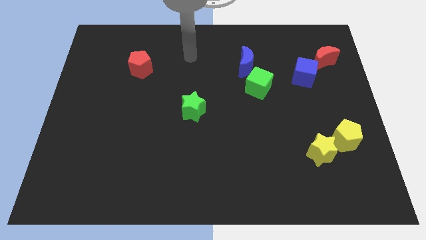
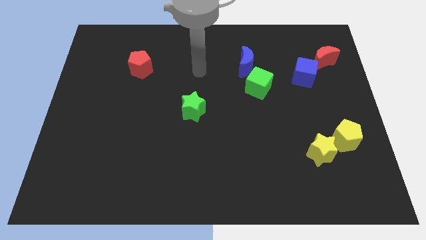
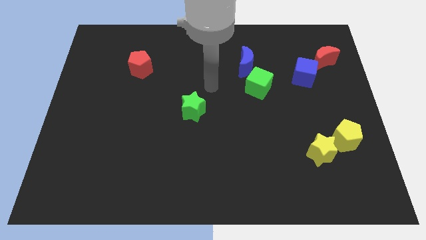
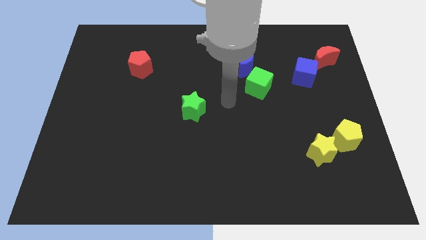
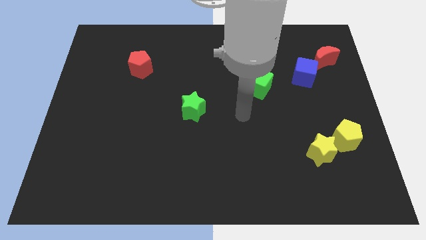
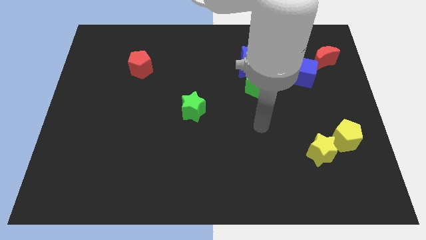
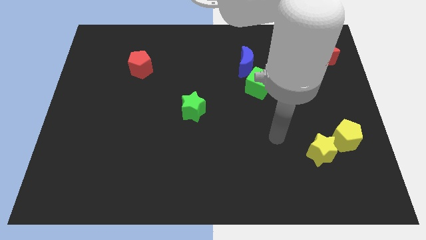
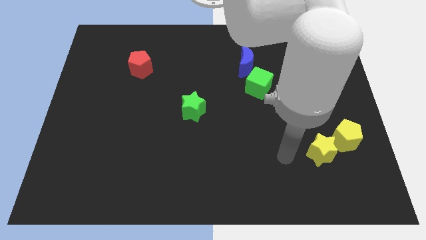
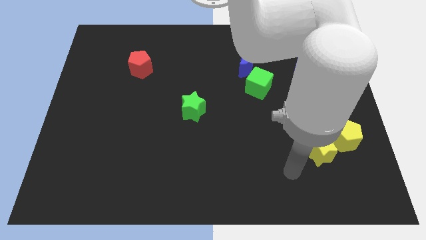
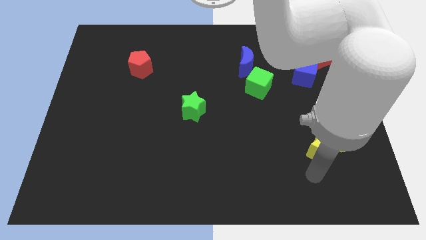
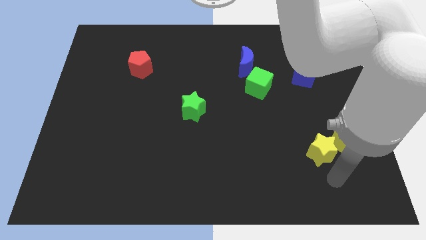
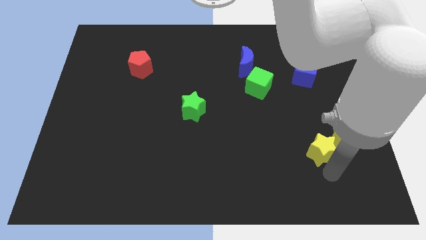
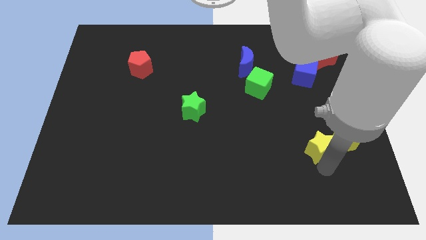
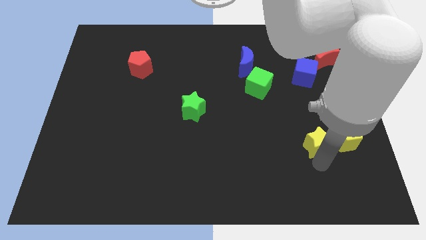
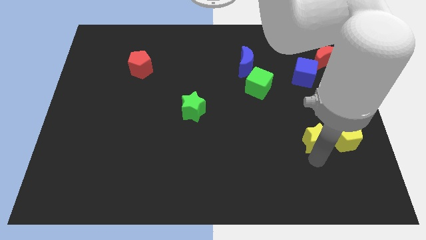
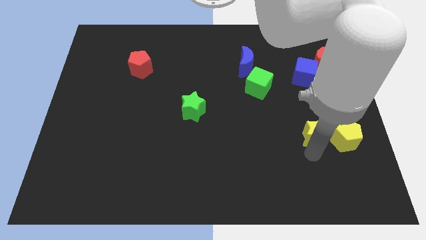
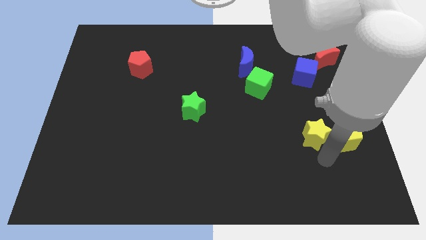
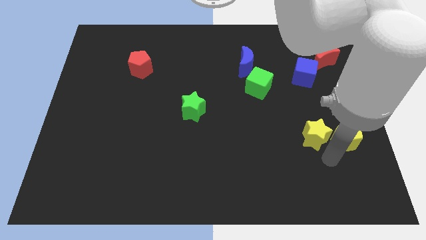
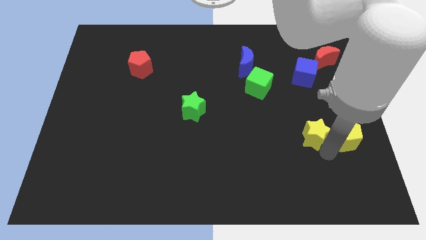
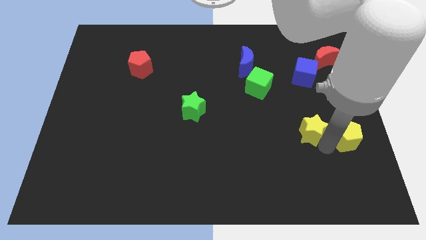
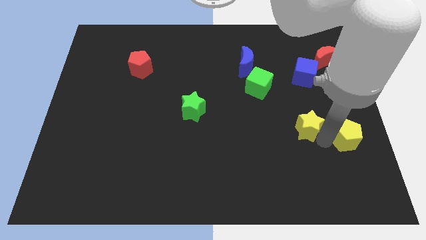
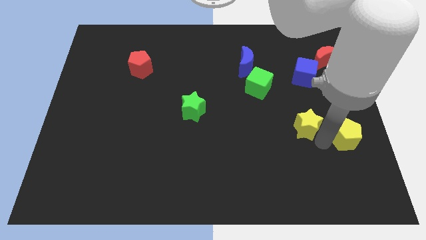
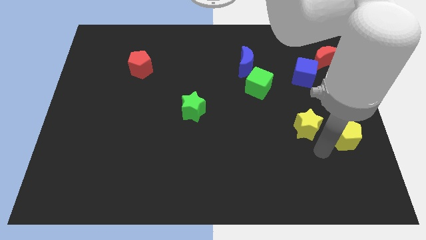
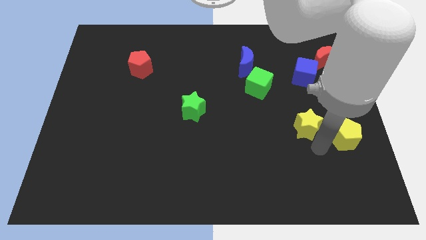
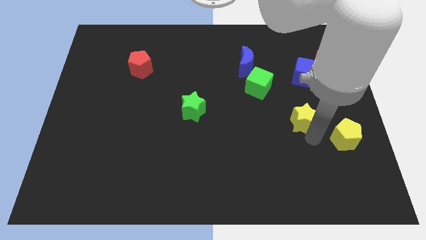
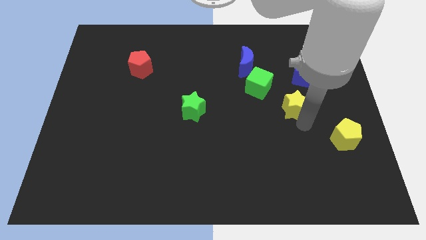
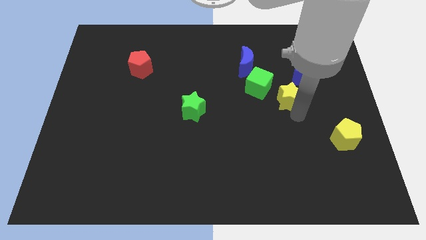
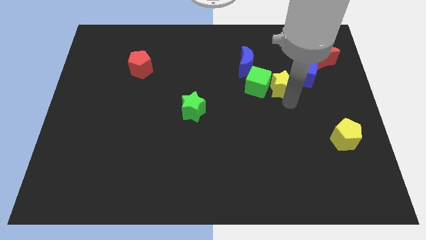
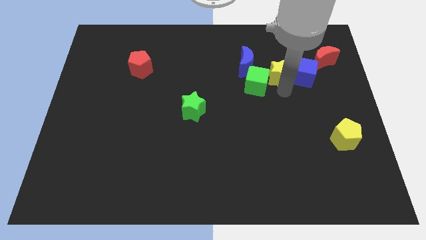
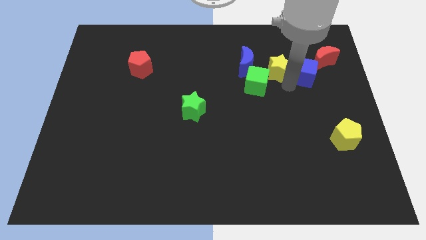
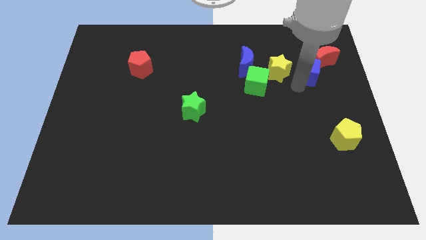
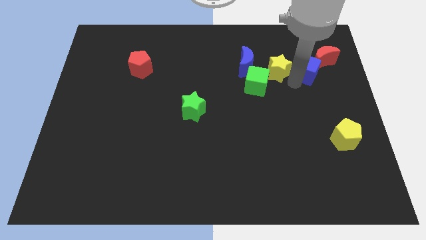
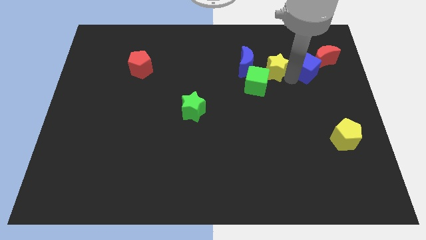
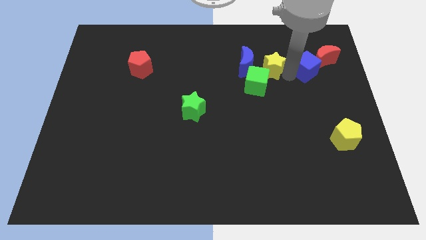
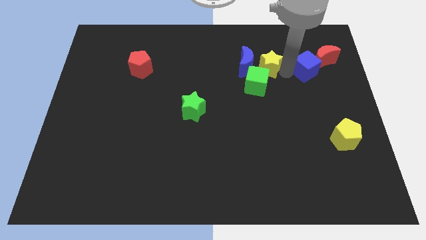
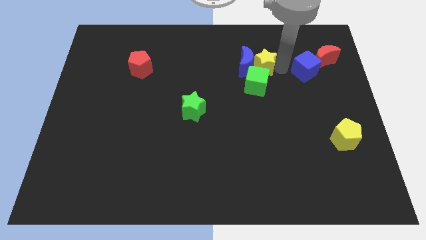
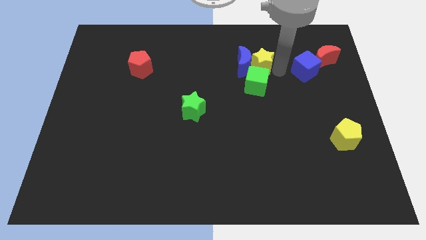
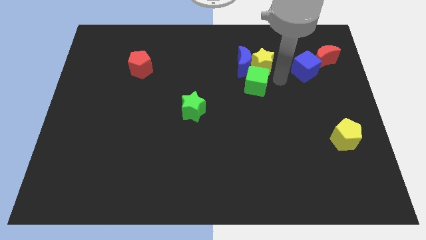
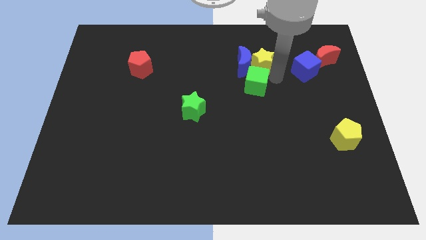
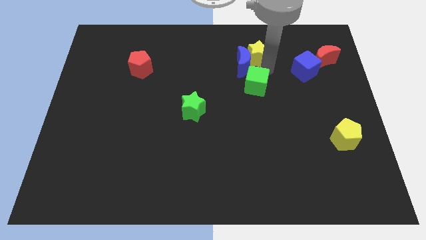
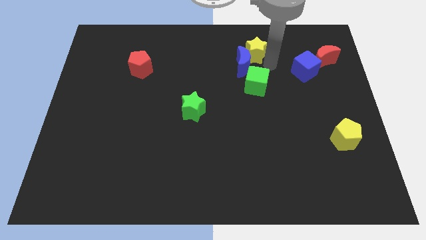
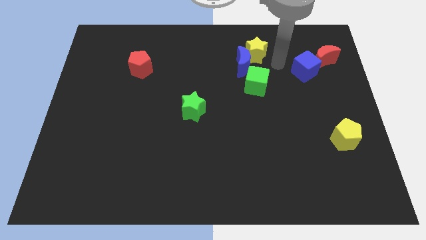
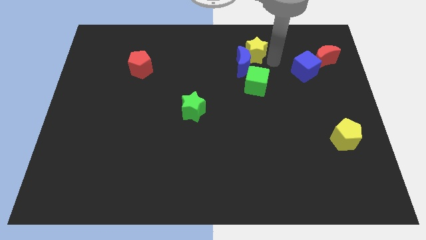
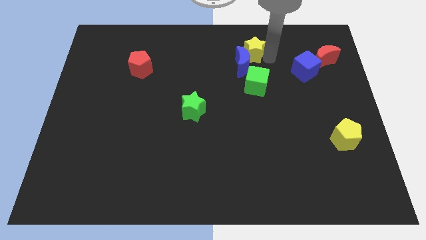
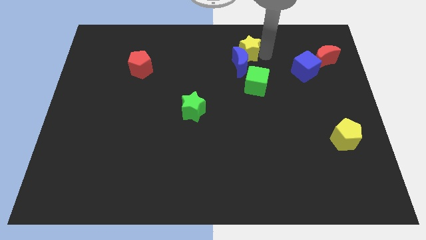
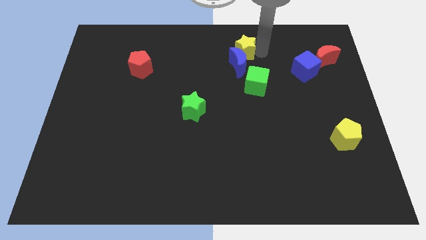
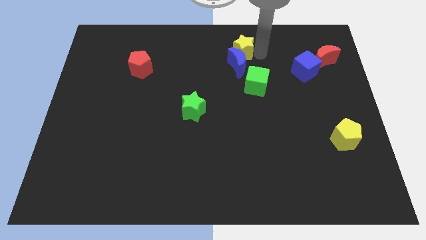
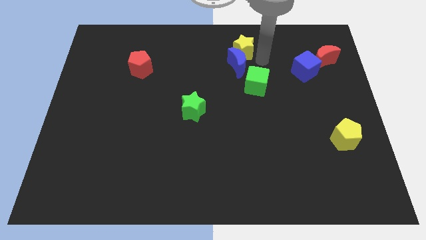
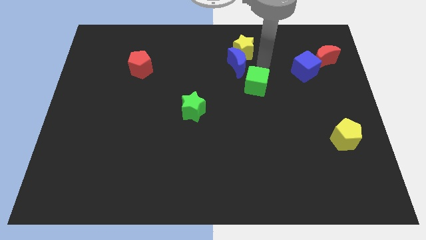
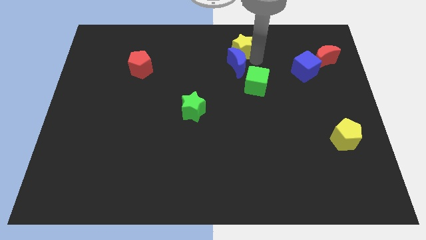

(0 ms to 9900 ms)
move the yellow star to the top side

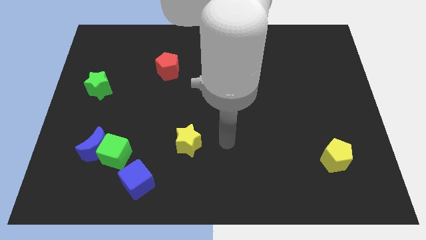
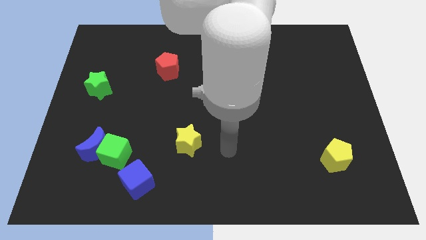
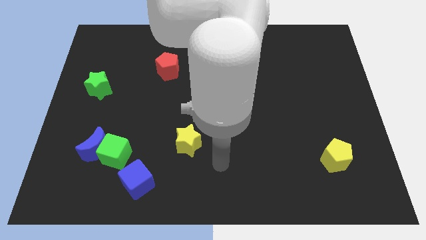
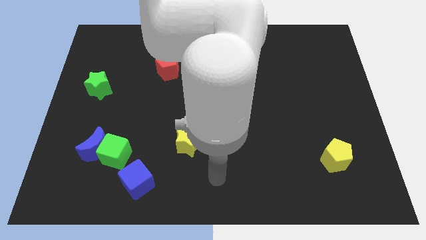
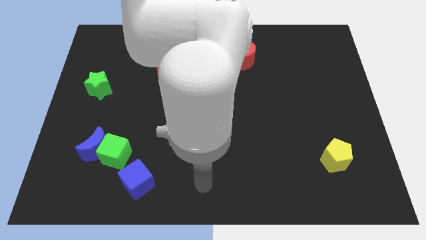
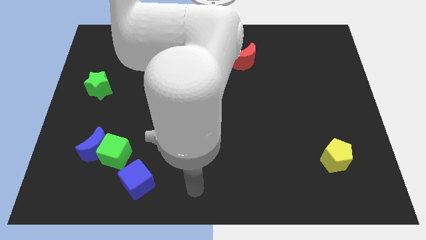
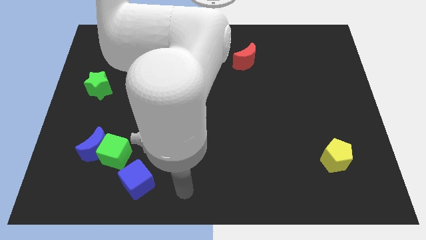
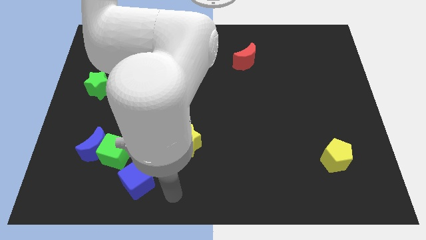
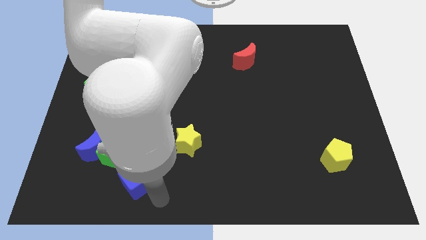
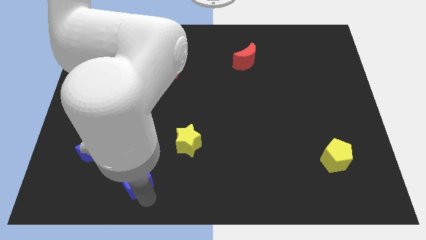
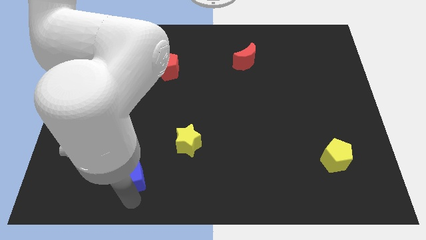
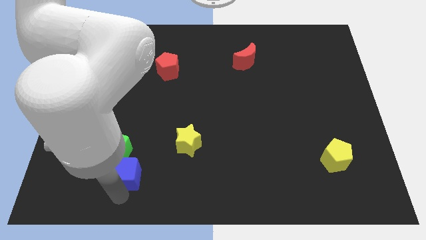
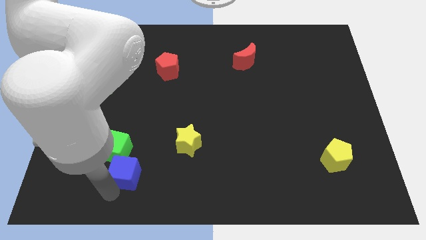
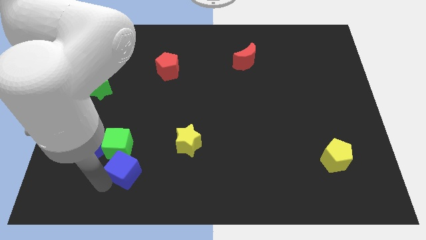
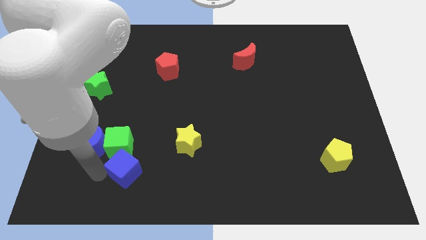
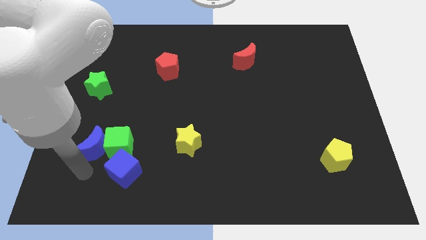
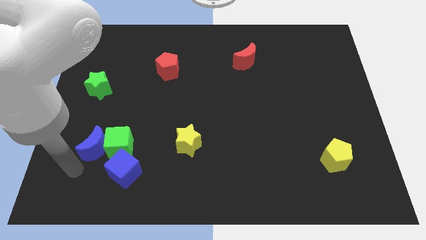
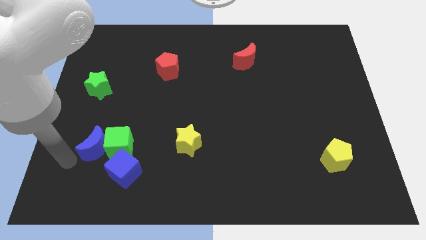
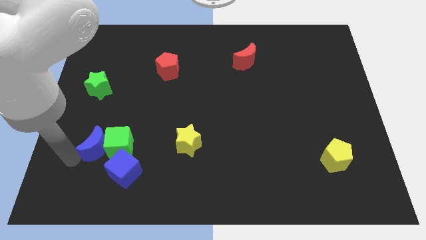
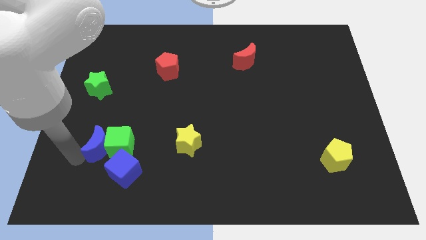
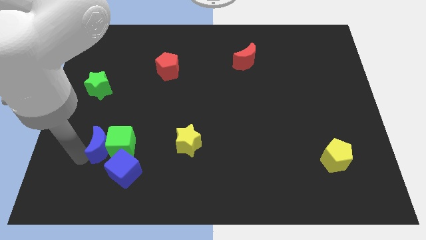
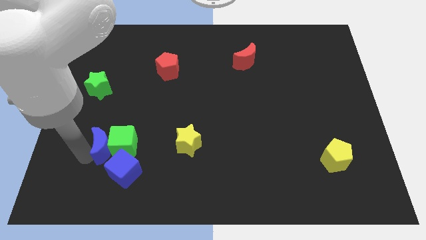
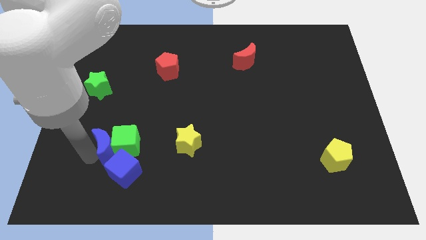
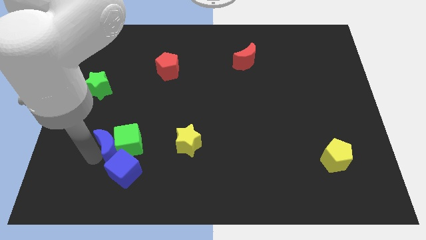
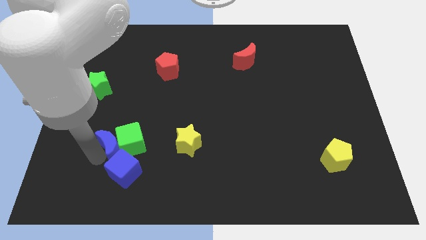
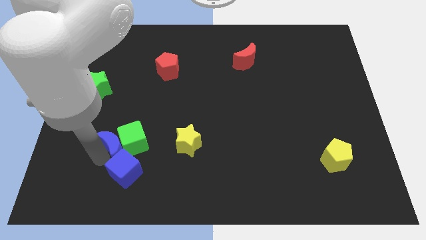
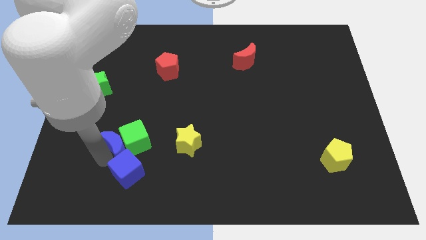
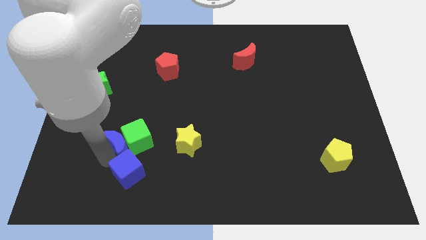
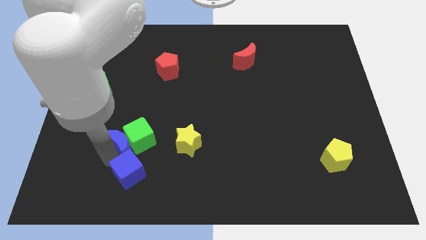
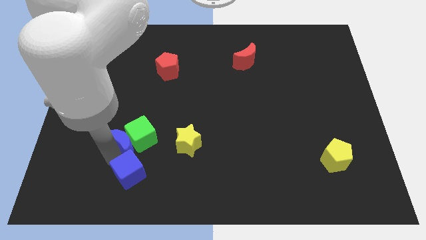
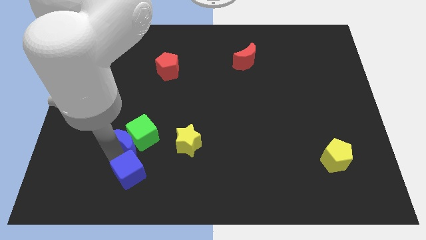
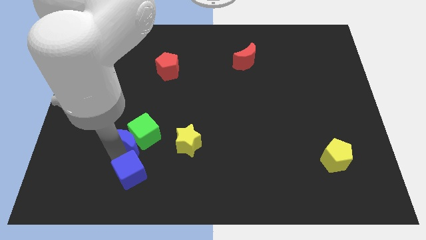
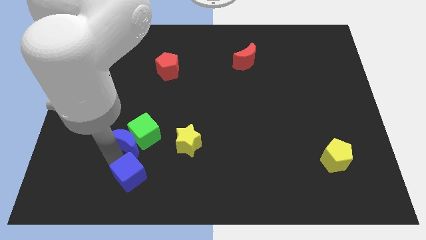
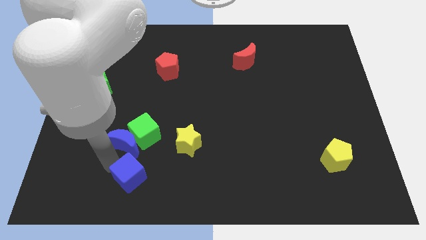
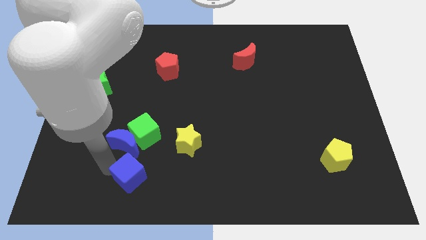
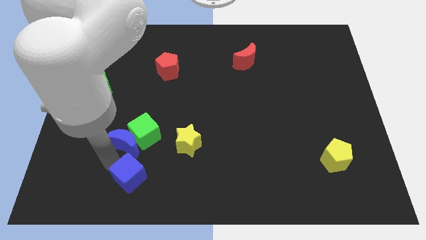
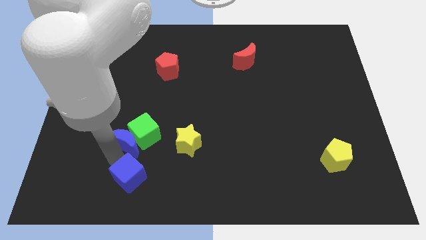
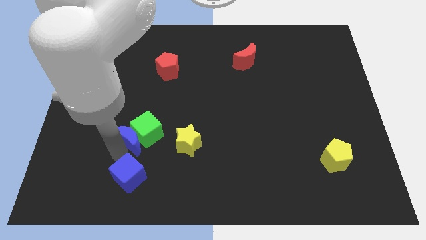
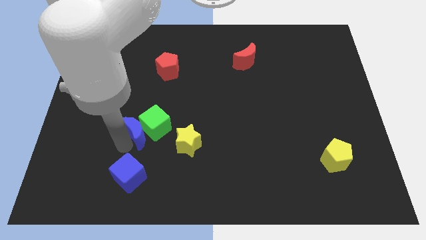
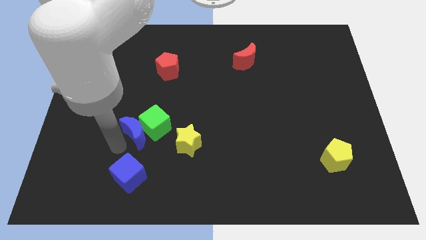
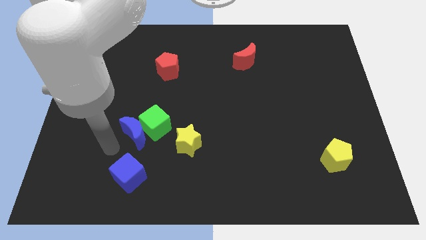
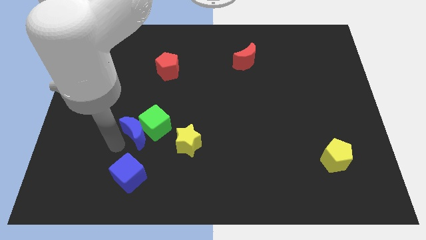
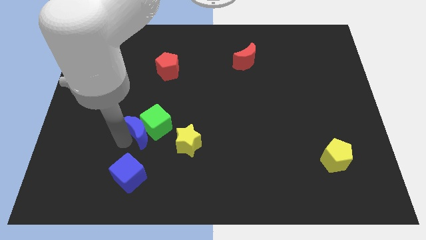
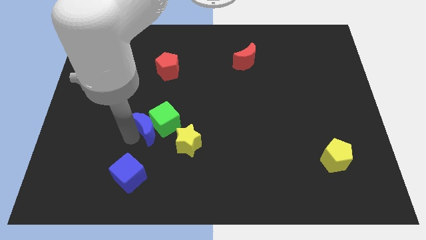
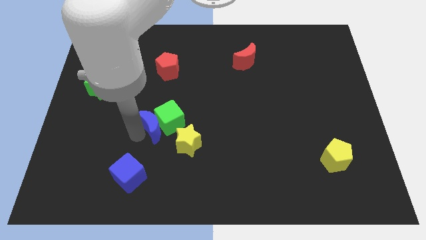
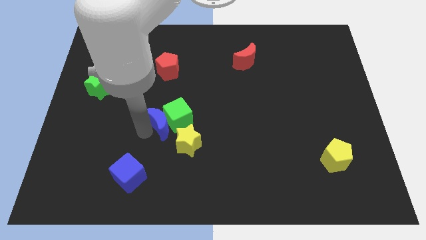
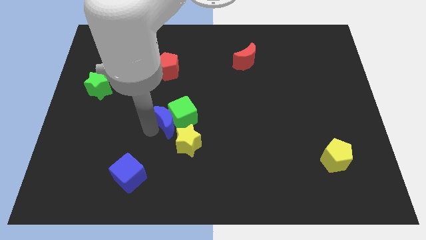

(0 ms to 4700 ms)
put the blue moon to the middle of the board
